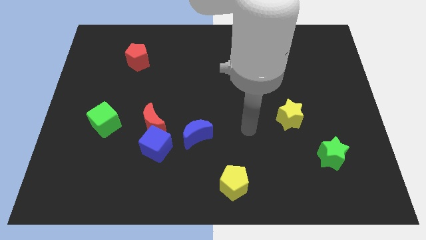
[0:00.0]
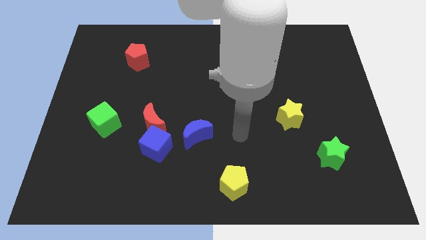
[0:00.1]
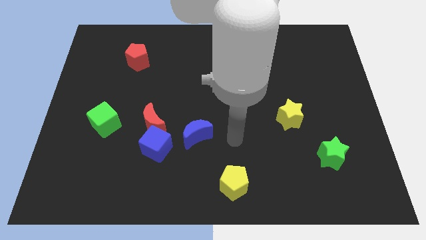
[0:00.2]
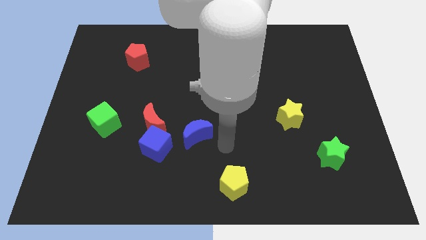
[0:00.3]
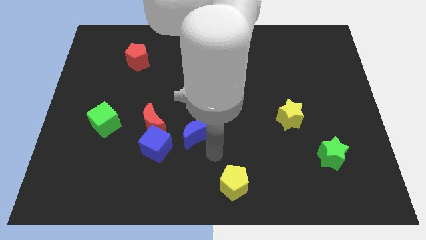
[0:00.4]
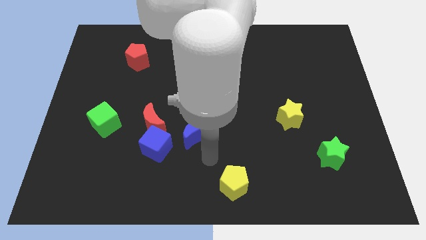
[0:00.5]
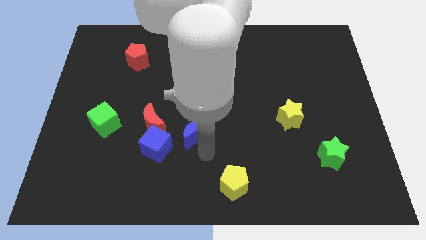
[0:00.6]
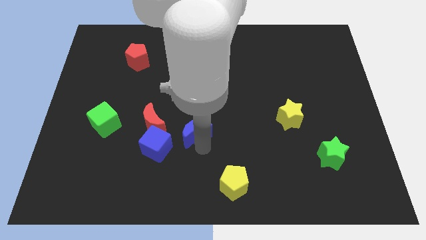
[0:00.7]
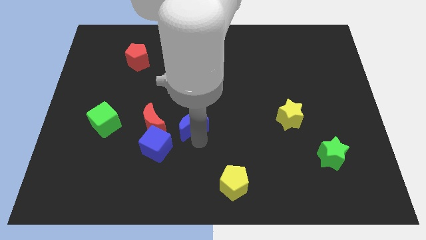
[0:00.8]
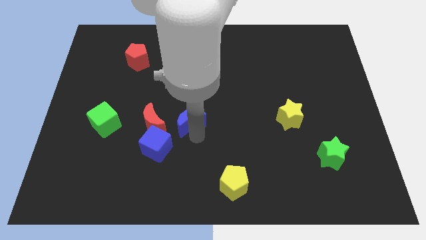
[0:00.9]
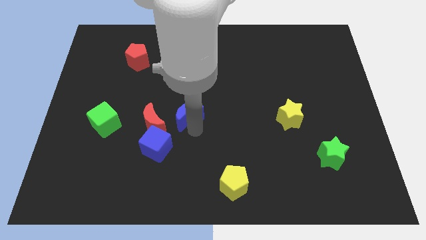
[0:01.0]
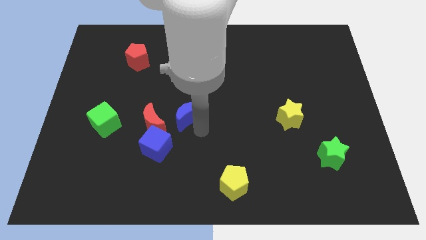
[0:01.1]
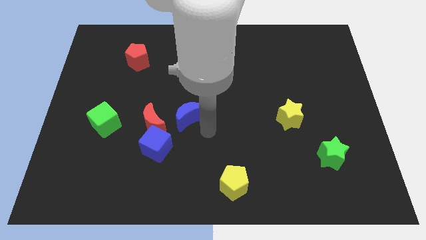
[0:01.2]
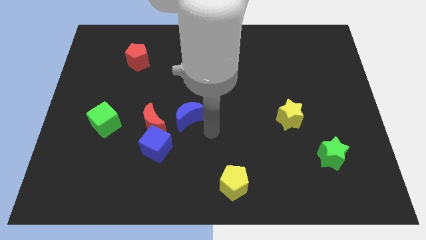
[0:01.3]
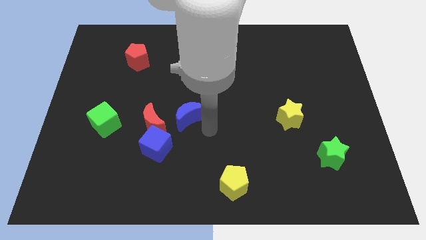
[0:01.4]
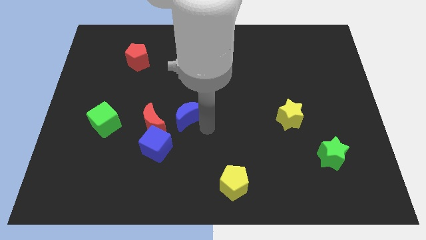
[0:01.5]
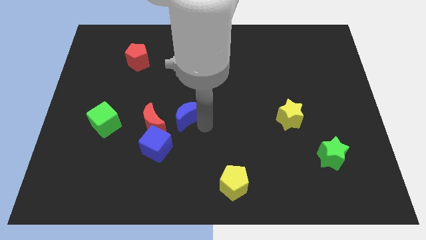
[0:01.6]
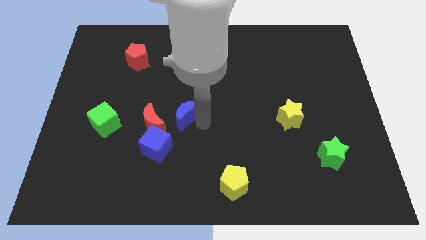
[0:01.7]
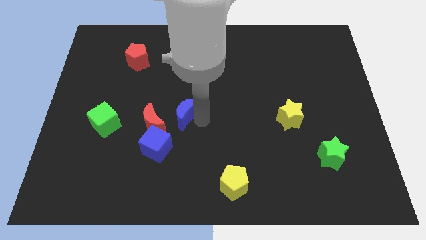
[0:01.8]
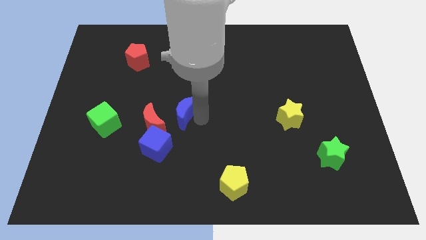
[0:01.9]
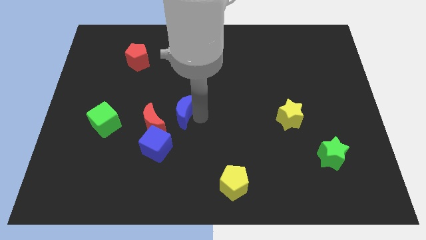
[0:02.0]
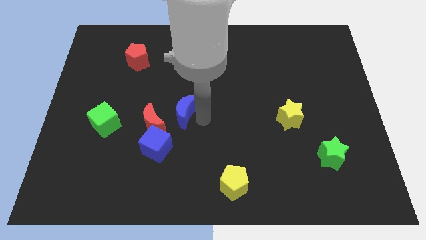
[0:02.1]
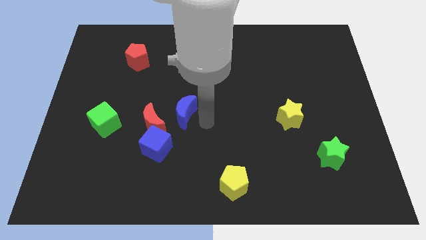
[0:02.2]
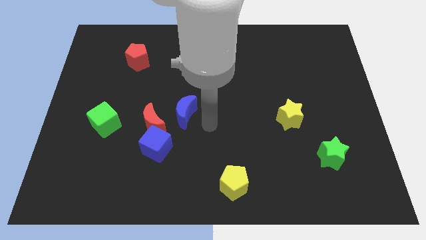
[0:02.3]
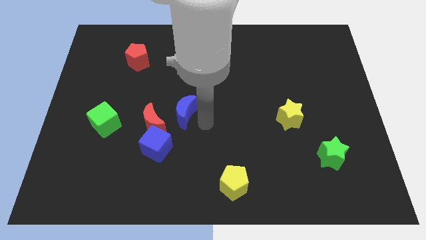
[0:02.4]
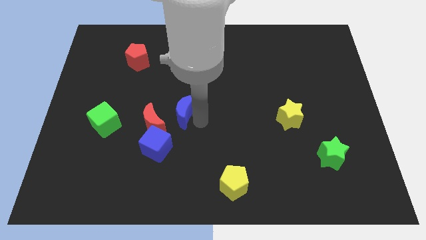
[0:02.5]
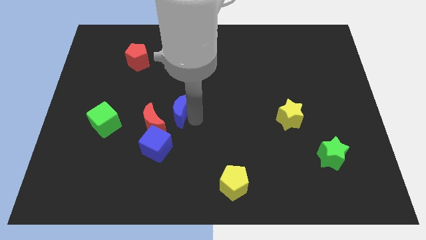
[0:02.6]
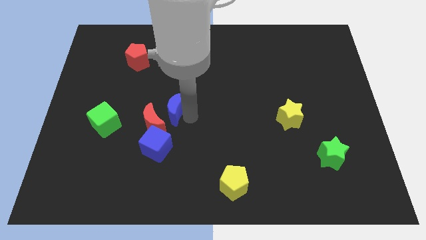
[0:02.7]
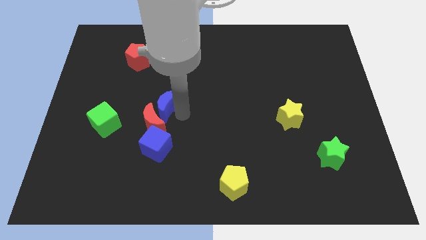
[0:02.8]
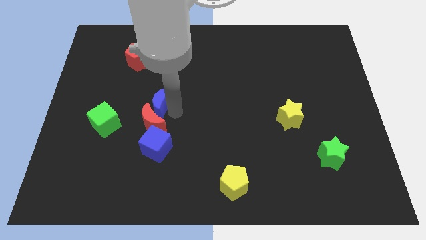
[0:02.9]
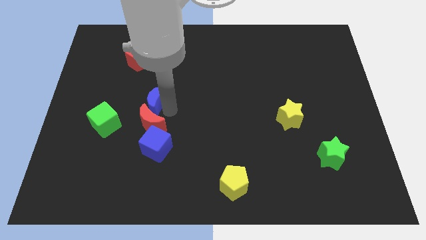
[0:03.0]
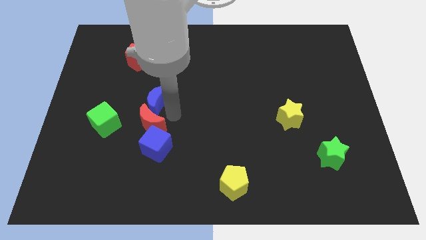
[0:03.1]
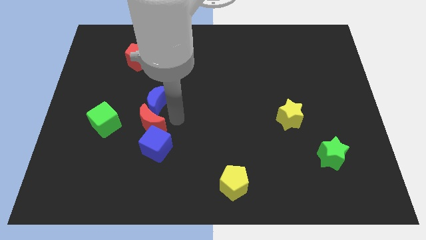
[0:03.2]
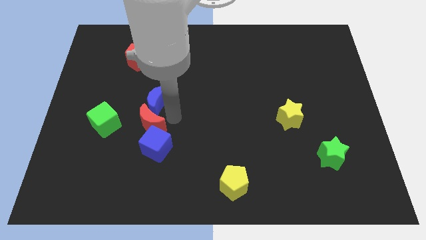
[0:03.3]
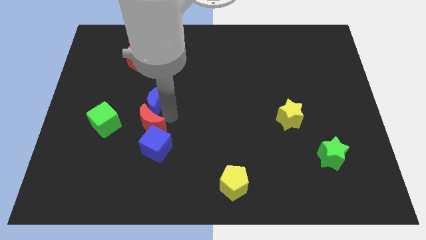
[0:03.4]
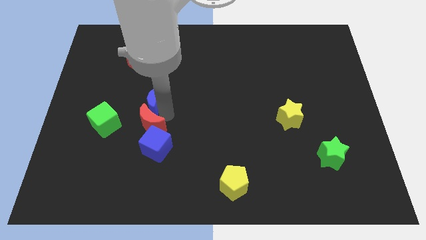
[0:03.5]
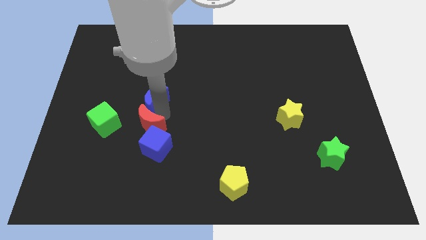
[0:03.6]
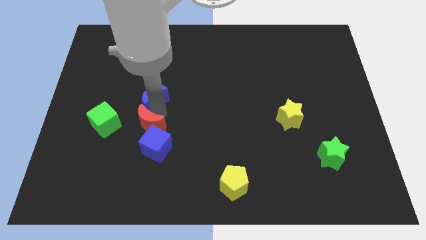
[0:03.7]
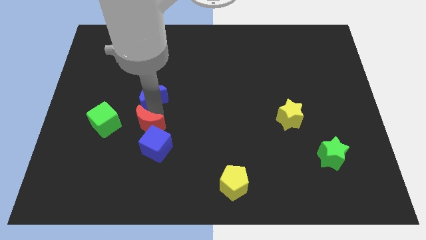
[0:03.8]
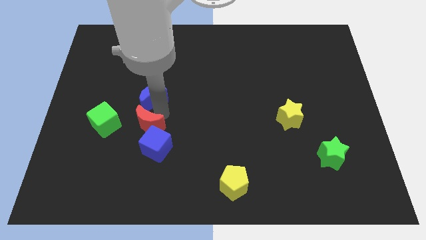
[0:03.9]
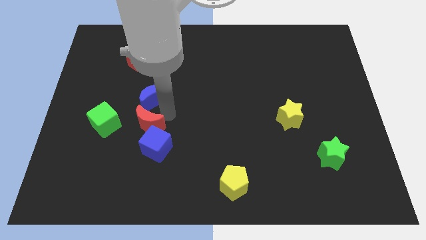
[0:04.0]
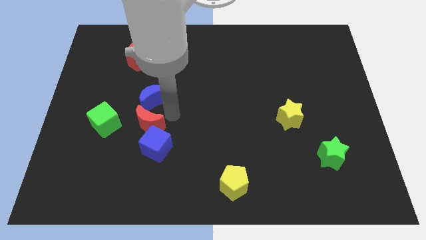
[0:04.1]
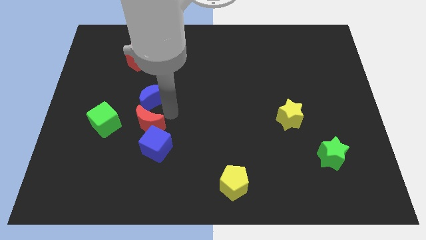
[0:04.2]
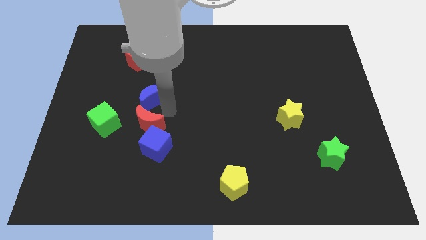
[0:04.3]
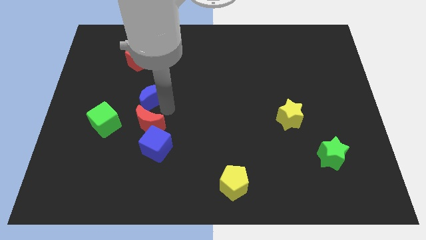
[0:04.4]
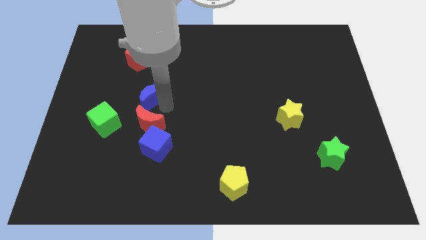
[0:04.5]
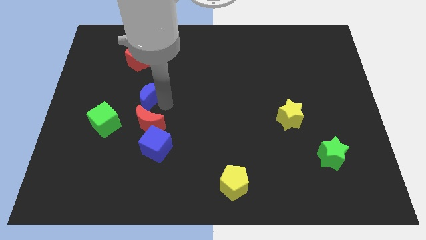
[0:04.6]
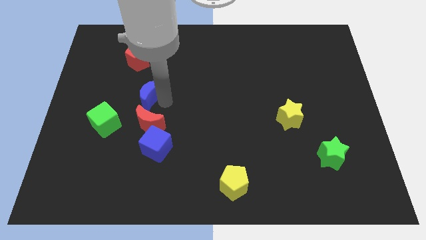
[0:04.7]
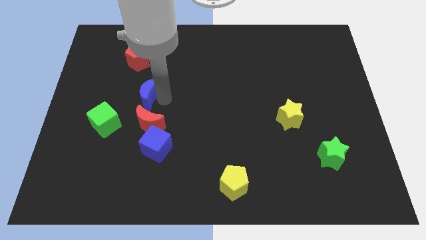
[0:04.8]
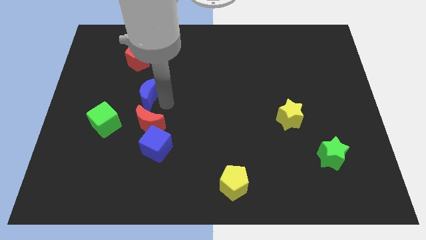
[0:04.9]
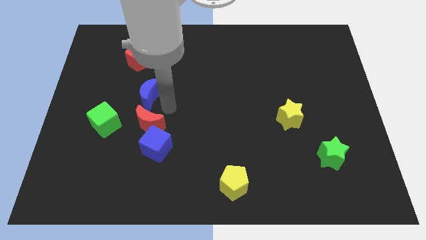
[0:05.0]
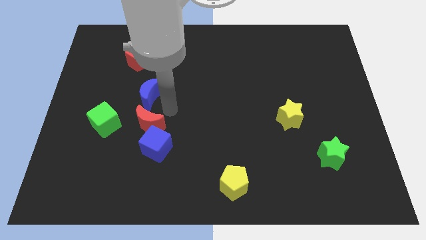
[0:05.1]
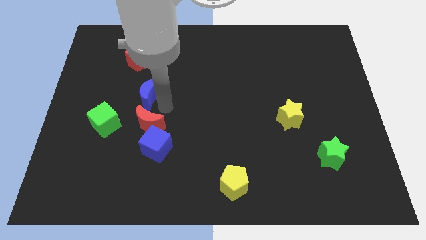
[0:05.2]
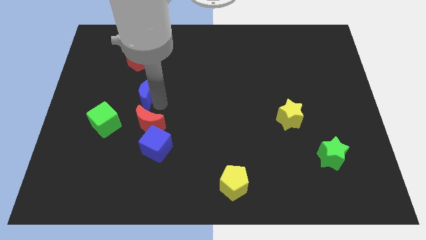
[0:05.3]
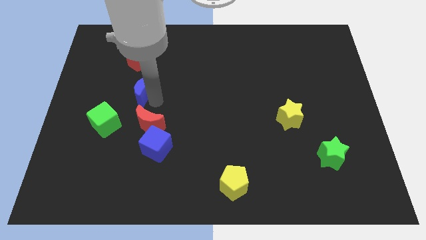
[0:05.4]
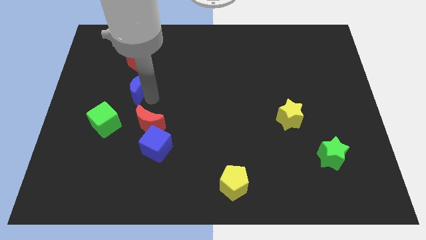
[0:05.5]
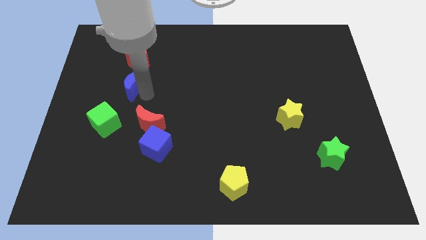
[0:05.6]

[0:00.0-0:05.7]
push the blue moon diagonally up and to the left

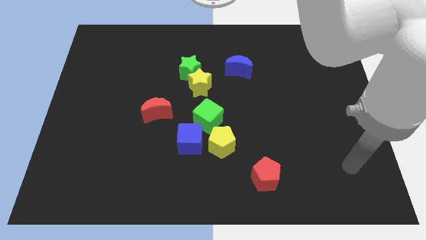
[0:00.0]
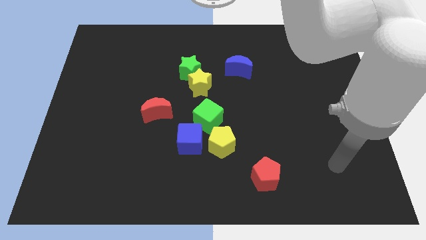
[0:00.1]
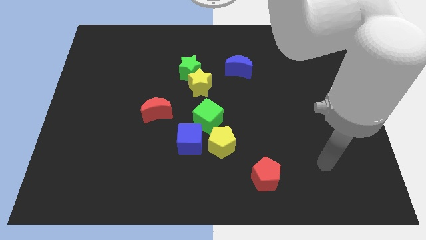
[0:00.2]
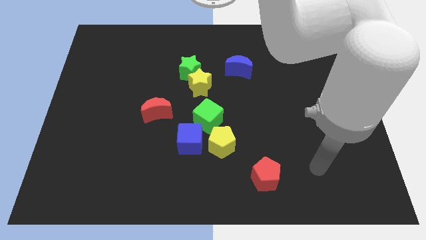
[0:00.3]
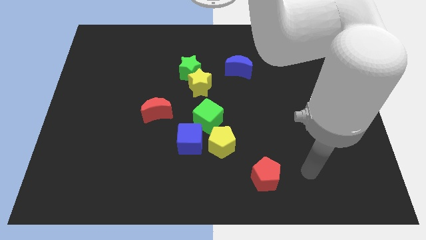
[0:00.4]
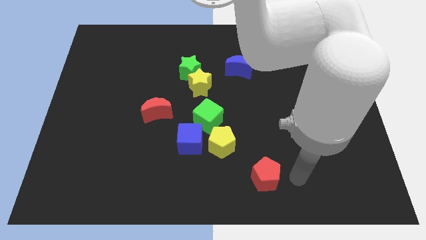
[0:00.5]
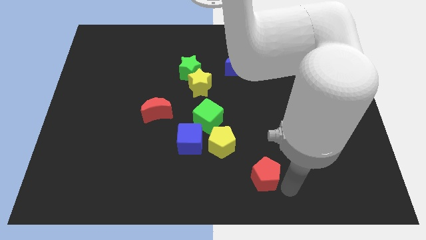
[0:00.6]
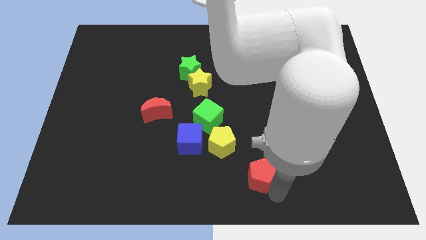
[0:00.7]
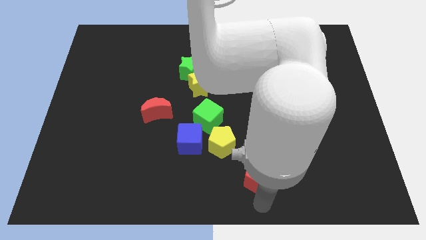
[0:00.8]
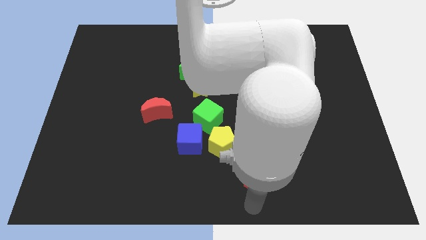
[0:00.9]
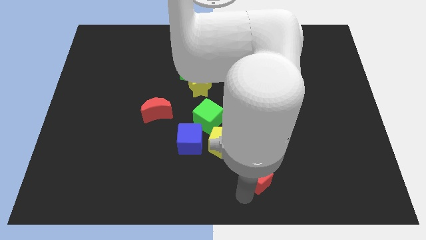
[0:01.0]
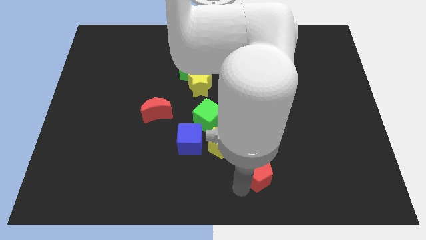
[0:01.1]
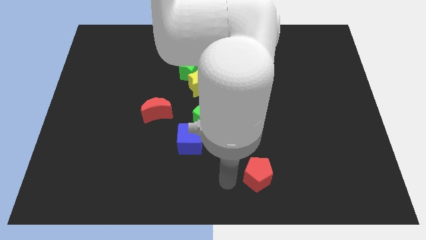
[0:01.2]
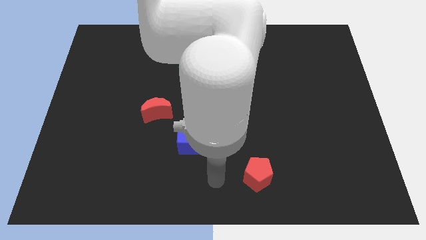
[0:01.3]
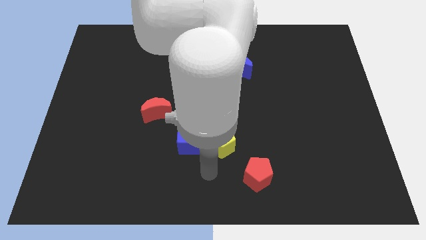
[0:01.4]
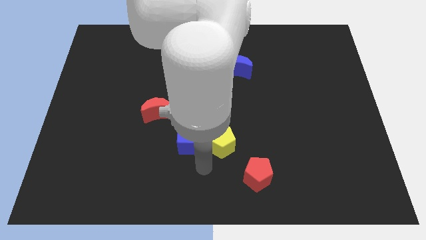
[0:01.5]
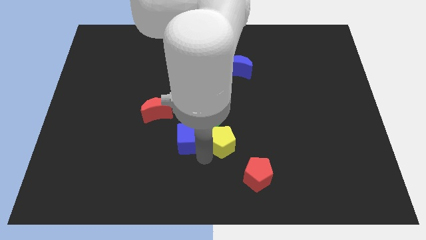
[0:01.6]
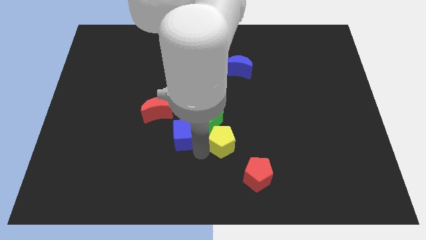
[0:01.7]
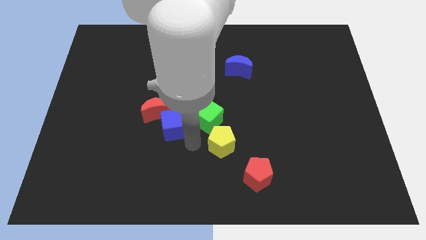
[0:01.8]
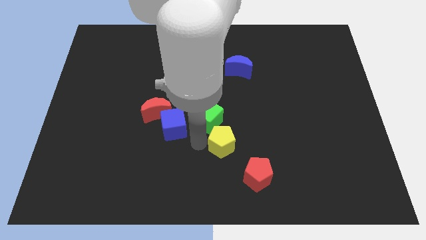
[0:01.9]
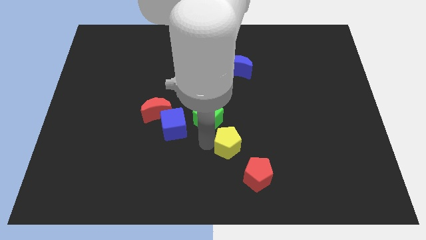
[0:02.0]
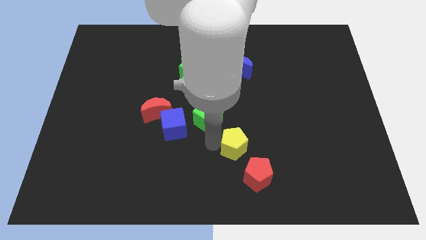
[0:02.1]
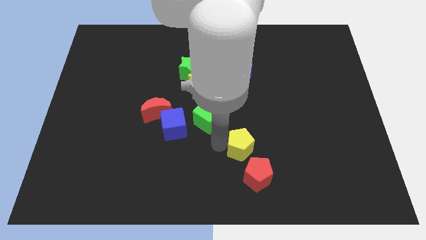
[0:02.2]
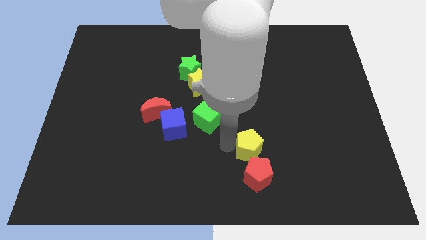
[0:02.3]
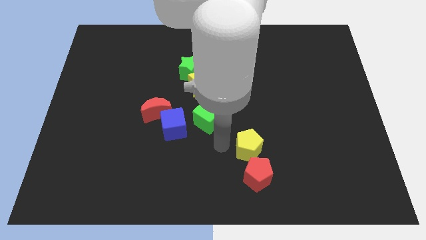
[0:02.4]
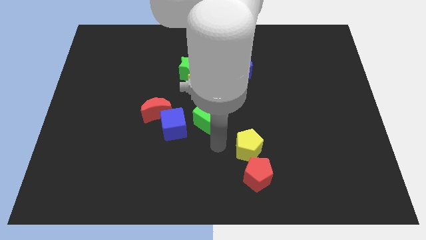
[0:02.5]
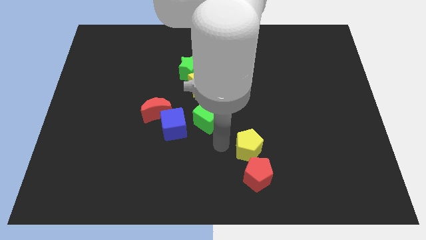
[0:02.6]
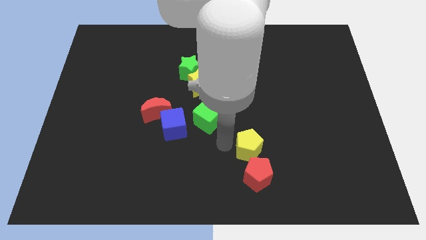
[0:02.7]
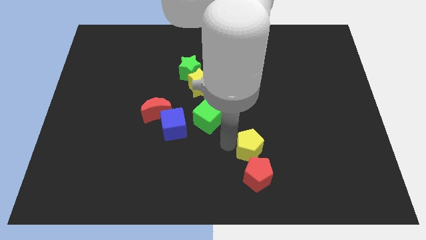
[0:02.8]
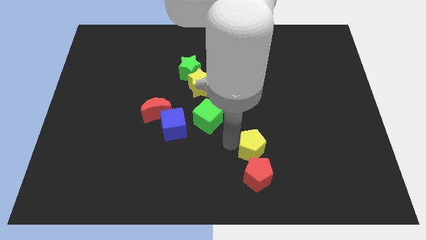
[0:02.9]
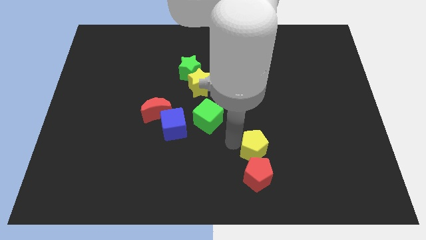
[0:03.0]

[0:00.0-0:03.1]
push the yellow pentagon a little to the right
